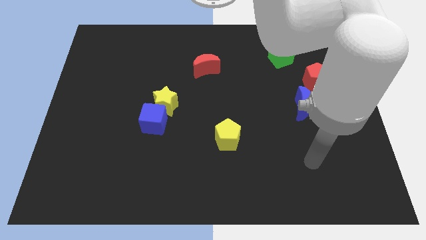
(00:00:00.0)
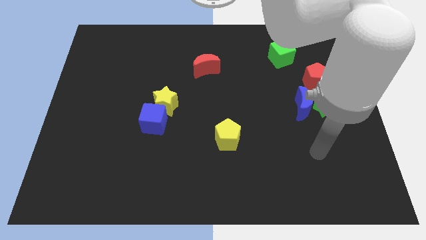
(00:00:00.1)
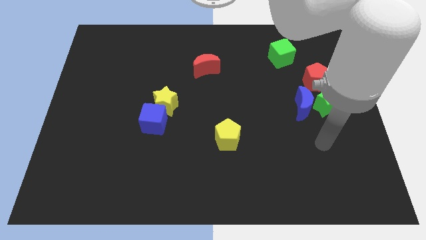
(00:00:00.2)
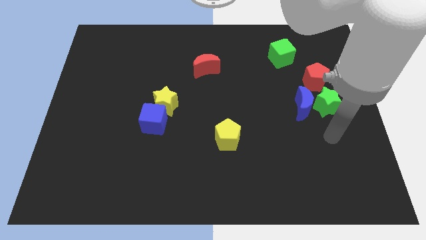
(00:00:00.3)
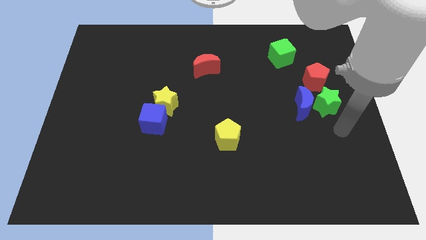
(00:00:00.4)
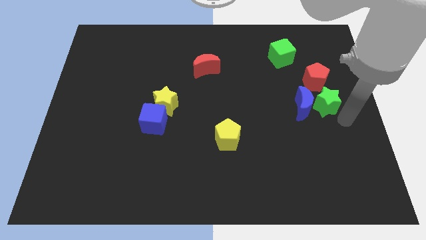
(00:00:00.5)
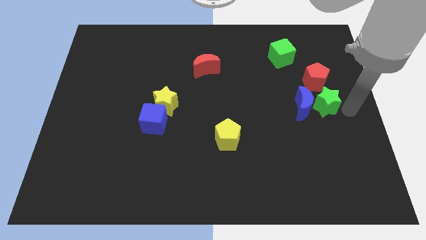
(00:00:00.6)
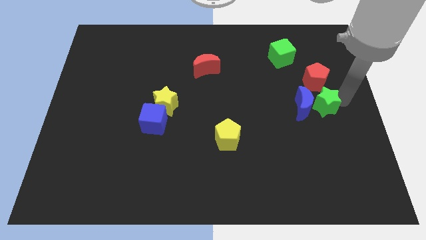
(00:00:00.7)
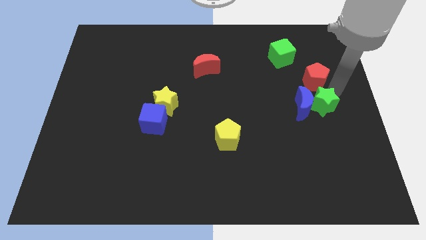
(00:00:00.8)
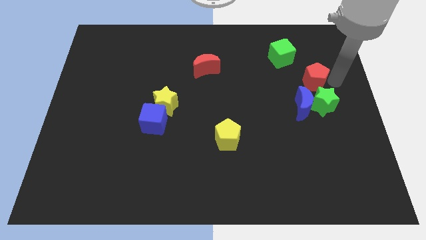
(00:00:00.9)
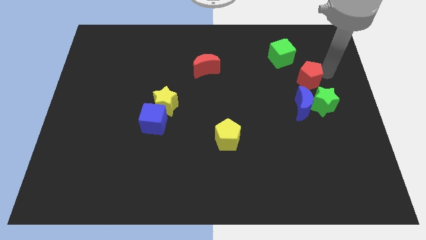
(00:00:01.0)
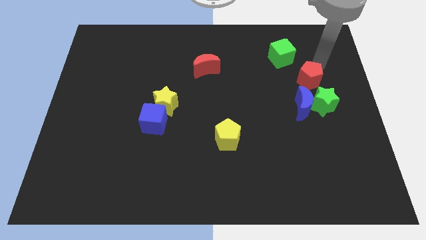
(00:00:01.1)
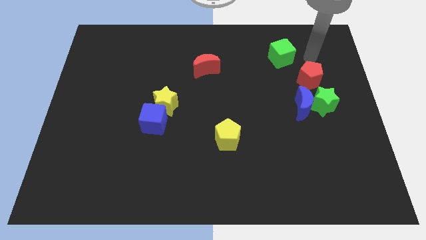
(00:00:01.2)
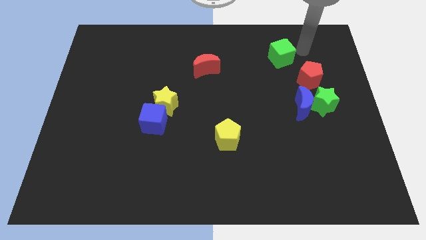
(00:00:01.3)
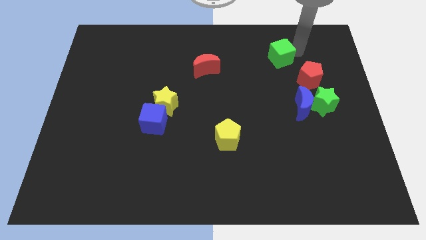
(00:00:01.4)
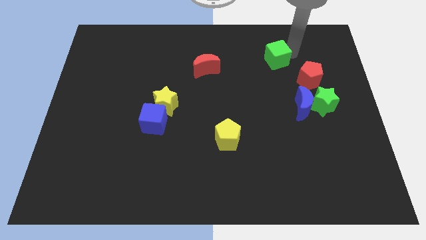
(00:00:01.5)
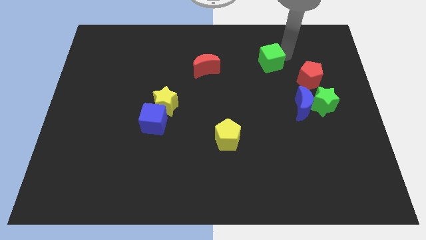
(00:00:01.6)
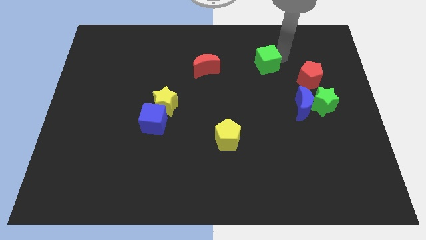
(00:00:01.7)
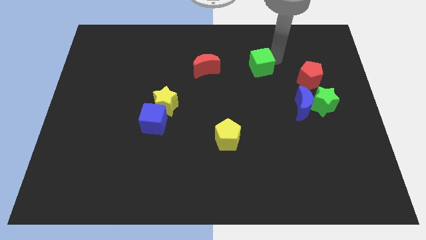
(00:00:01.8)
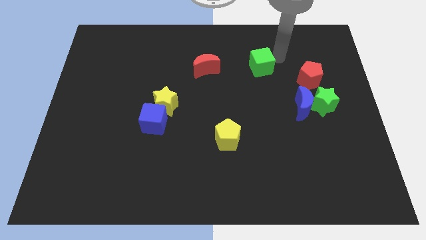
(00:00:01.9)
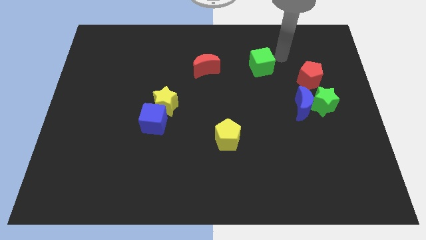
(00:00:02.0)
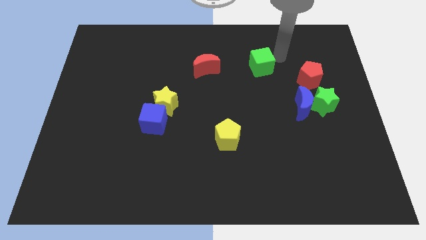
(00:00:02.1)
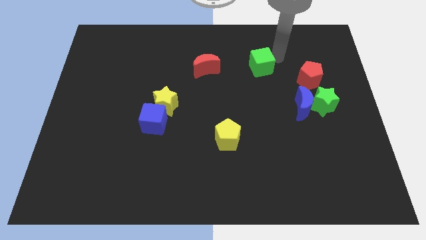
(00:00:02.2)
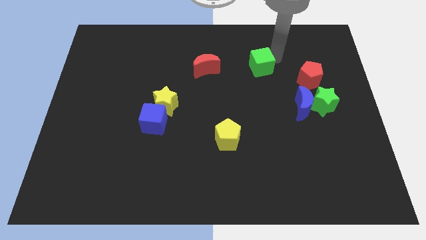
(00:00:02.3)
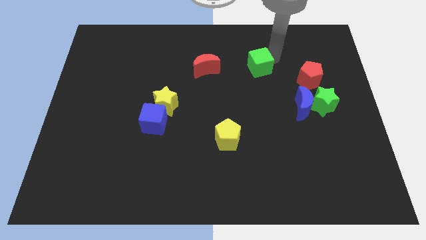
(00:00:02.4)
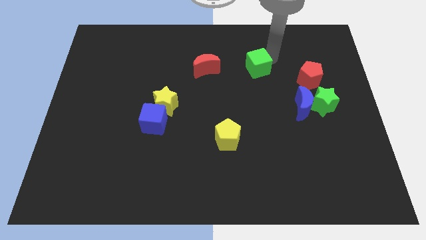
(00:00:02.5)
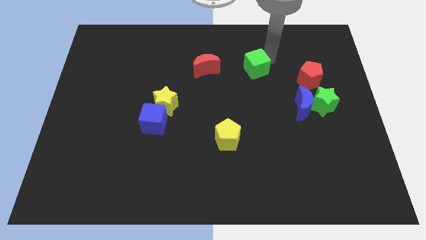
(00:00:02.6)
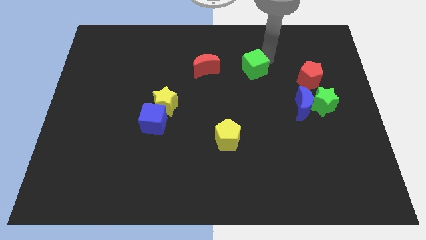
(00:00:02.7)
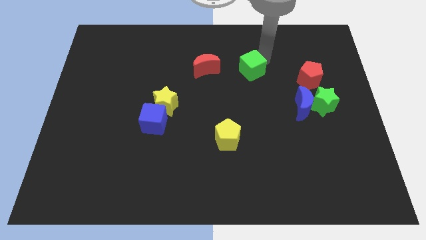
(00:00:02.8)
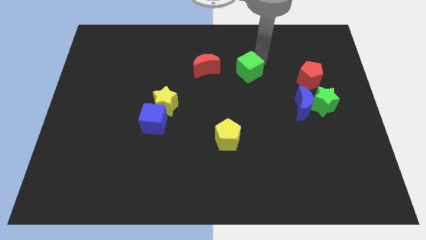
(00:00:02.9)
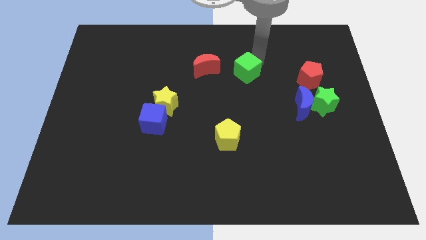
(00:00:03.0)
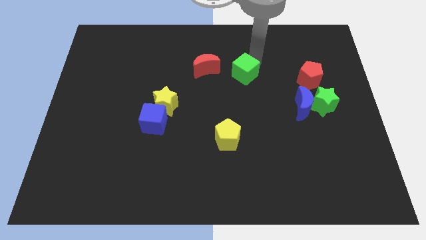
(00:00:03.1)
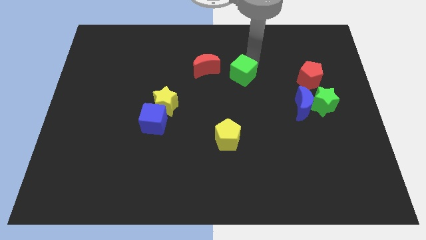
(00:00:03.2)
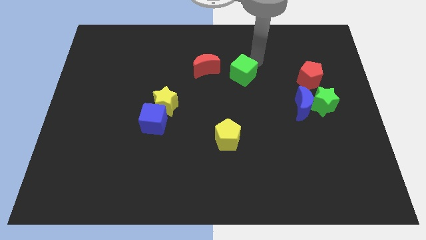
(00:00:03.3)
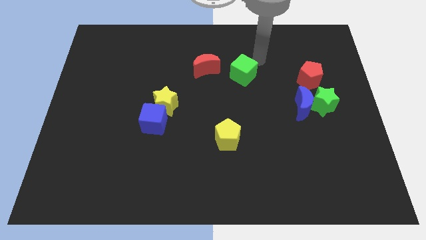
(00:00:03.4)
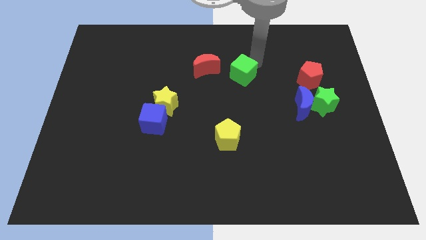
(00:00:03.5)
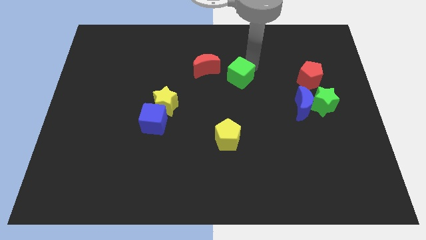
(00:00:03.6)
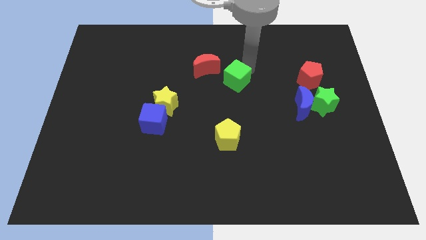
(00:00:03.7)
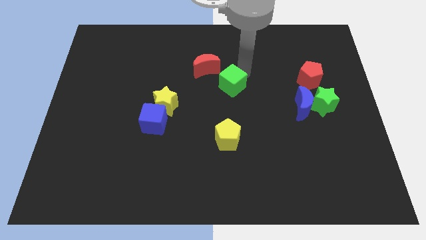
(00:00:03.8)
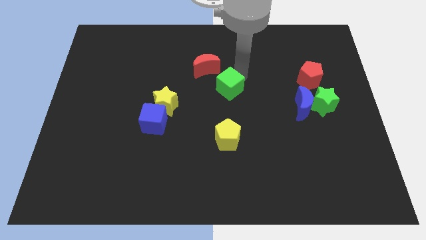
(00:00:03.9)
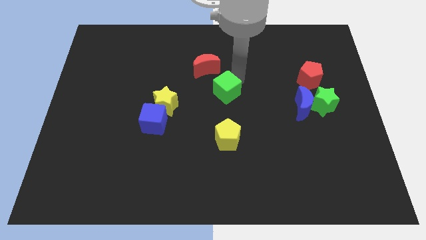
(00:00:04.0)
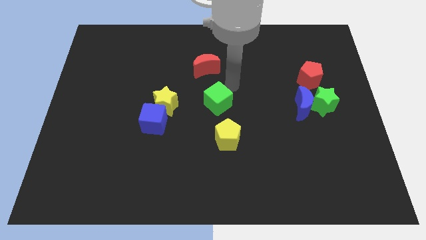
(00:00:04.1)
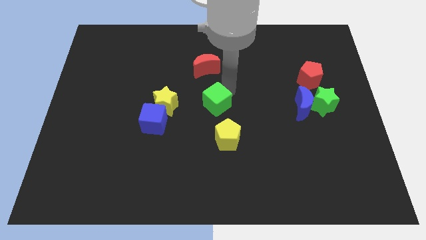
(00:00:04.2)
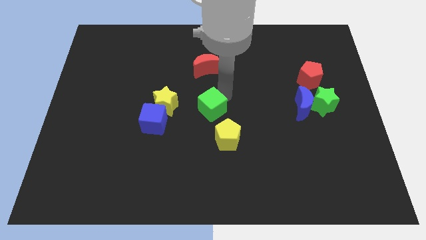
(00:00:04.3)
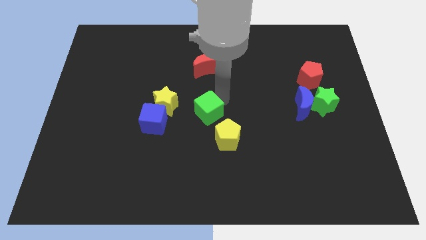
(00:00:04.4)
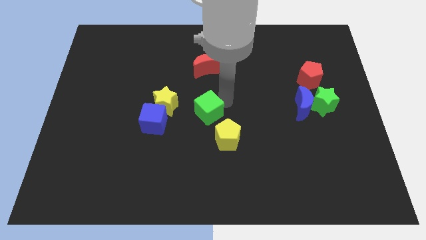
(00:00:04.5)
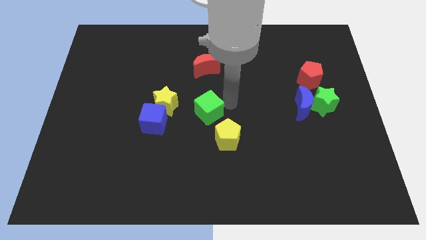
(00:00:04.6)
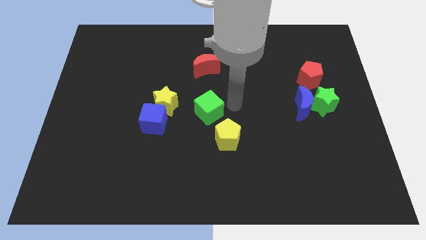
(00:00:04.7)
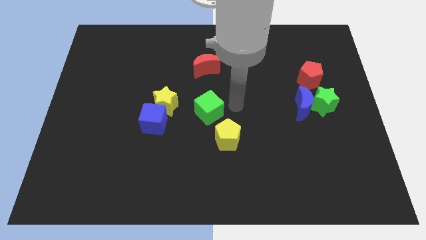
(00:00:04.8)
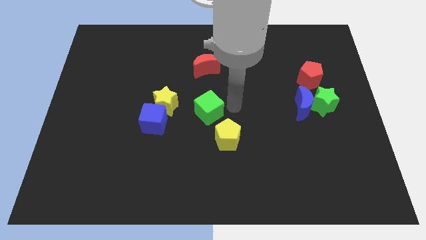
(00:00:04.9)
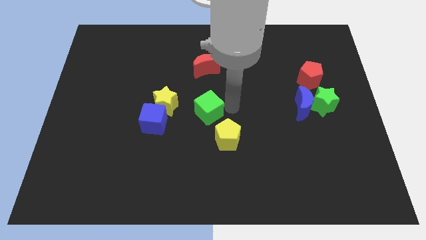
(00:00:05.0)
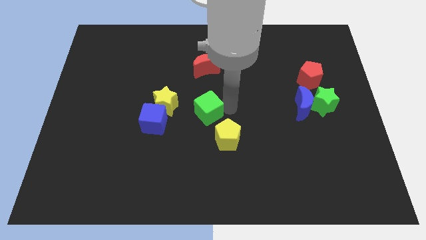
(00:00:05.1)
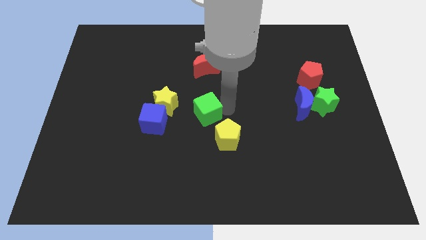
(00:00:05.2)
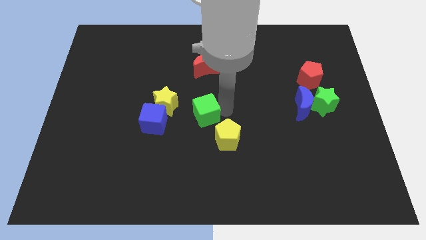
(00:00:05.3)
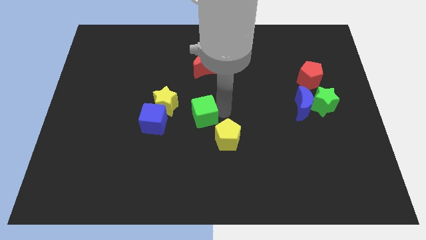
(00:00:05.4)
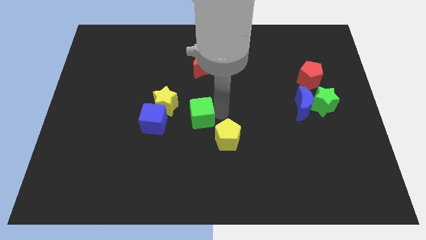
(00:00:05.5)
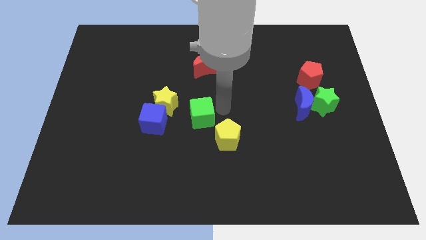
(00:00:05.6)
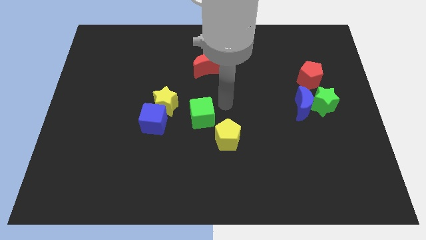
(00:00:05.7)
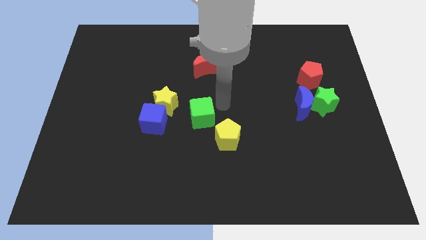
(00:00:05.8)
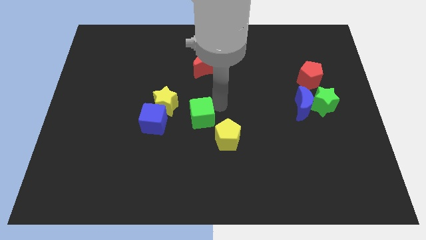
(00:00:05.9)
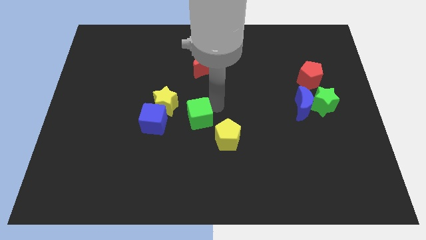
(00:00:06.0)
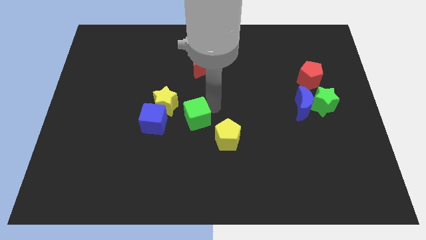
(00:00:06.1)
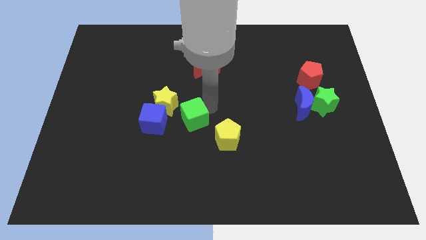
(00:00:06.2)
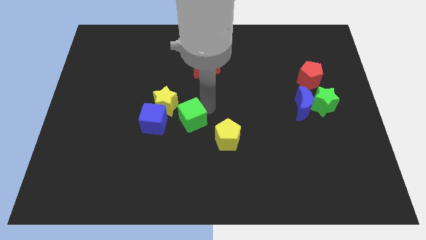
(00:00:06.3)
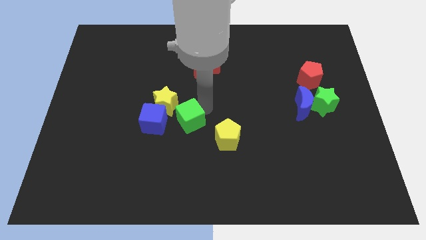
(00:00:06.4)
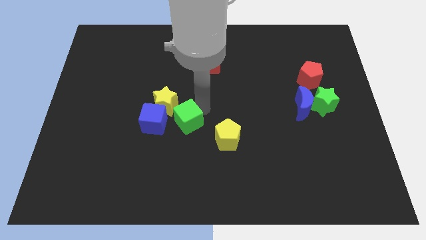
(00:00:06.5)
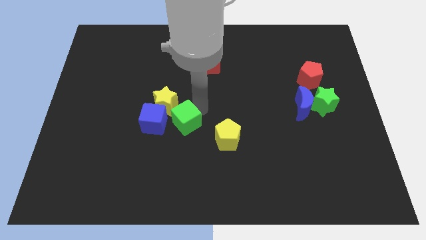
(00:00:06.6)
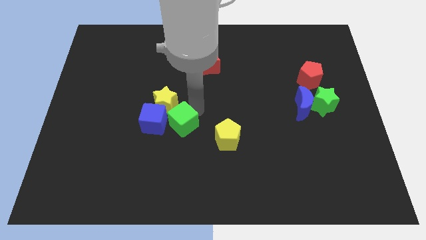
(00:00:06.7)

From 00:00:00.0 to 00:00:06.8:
put the green cube to the bottom of the yellow star

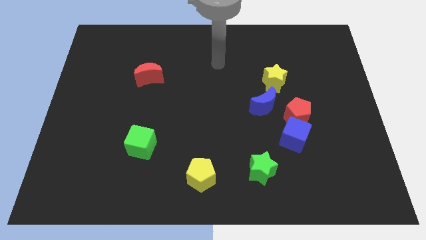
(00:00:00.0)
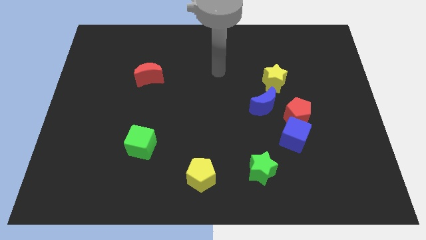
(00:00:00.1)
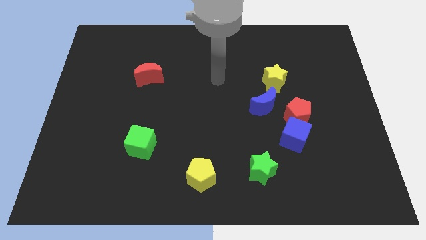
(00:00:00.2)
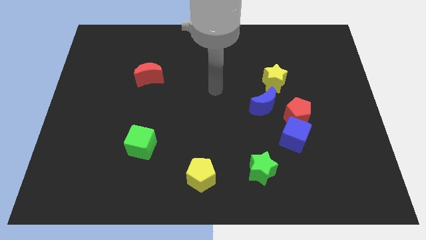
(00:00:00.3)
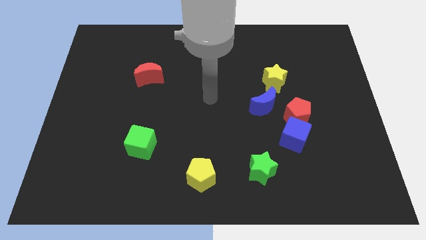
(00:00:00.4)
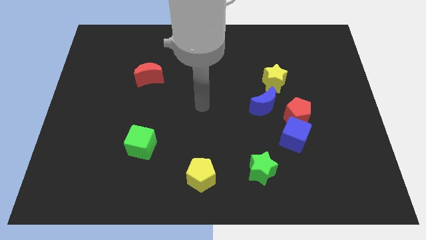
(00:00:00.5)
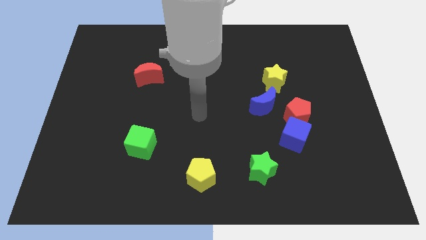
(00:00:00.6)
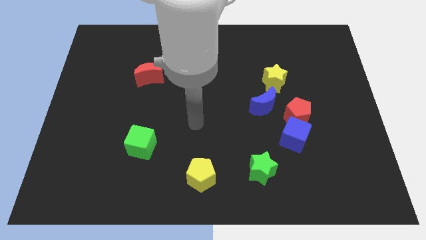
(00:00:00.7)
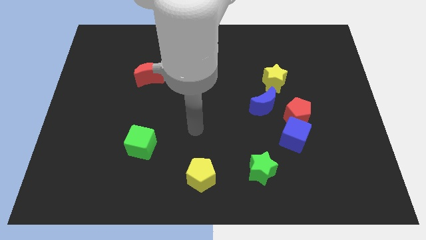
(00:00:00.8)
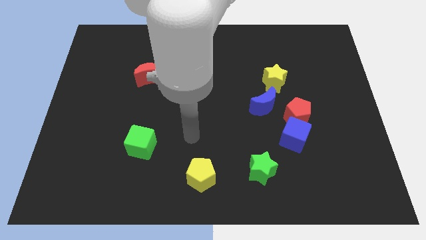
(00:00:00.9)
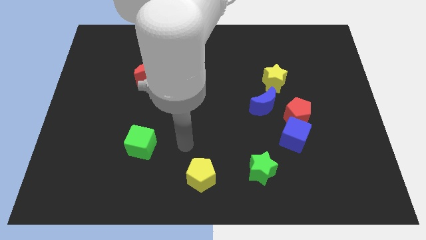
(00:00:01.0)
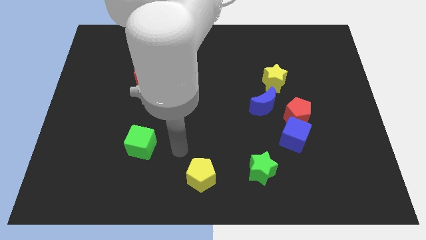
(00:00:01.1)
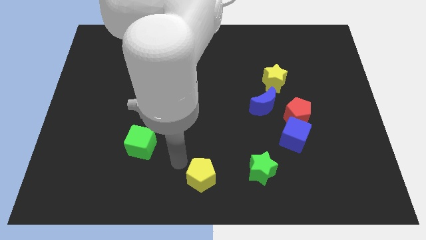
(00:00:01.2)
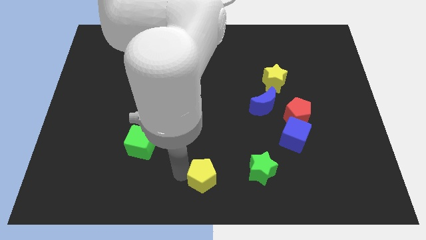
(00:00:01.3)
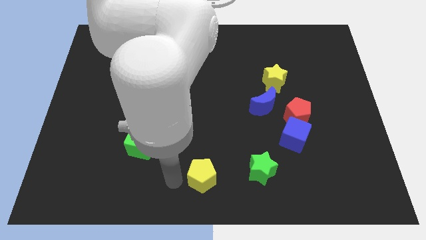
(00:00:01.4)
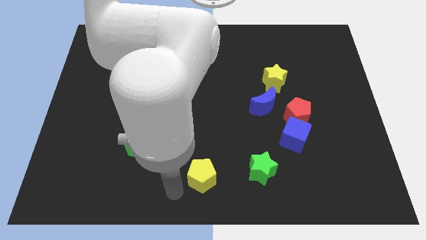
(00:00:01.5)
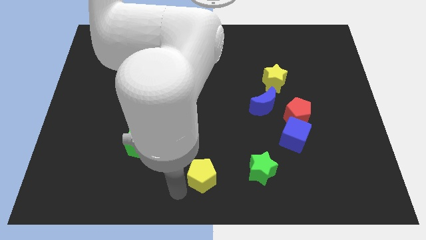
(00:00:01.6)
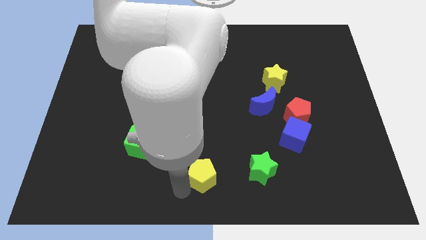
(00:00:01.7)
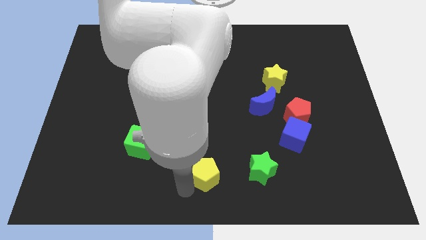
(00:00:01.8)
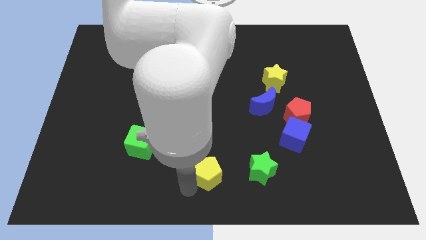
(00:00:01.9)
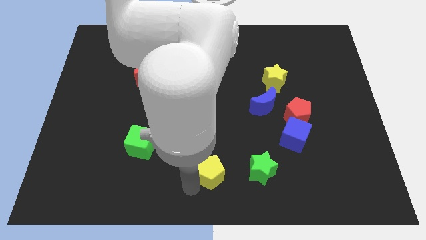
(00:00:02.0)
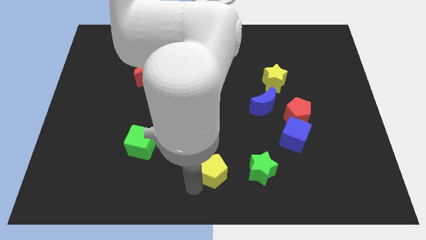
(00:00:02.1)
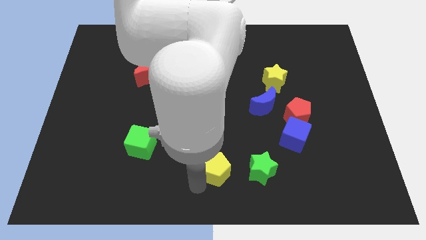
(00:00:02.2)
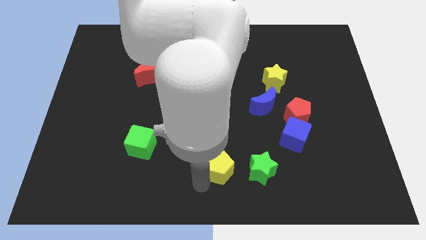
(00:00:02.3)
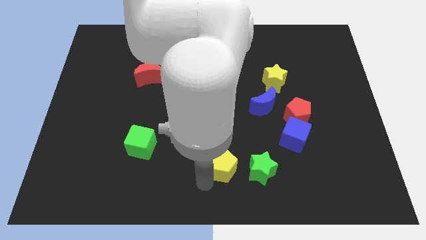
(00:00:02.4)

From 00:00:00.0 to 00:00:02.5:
move the yellow pentagon to the top left of the green star
